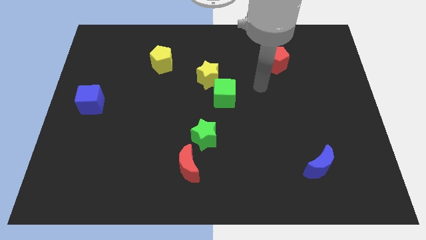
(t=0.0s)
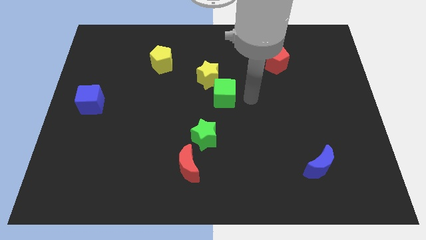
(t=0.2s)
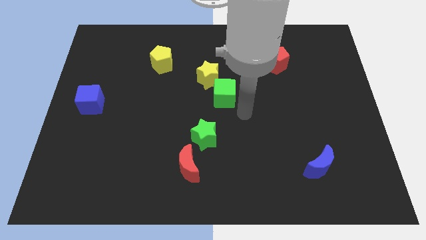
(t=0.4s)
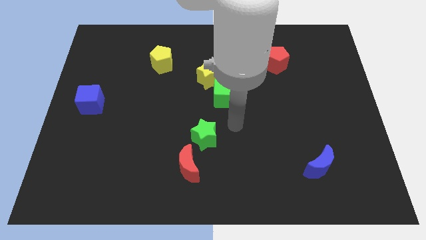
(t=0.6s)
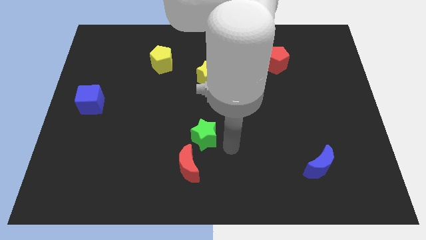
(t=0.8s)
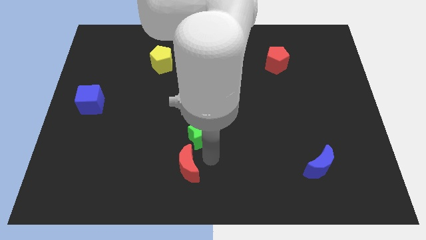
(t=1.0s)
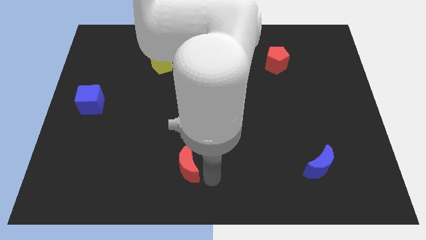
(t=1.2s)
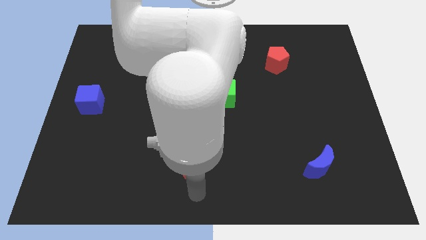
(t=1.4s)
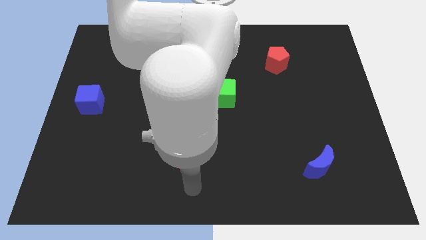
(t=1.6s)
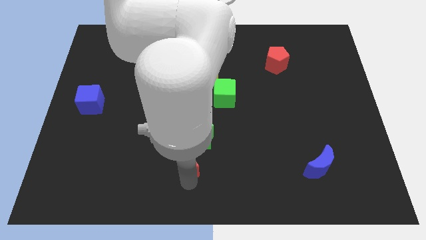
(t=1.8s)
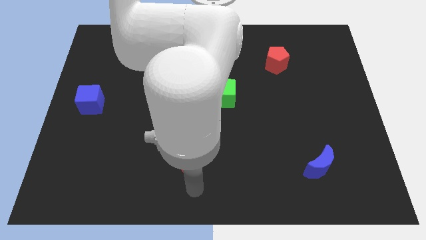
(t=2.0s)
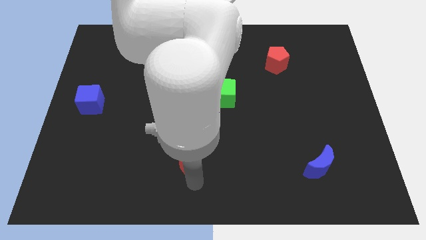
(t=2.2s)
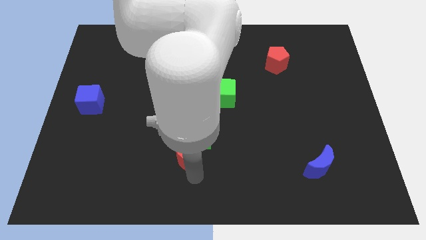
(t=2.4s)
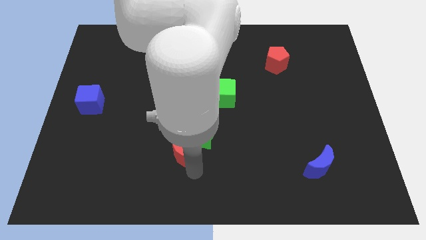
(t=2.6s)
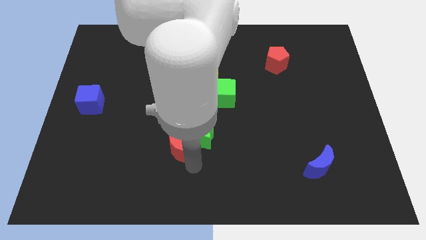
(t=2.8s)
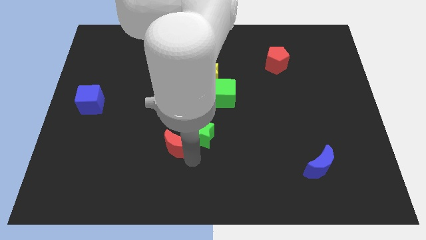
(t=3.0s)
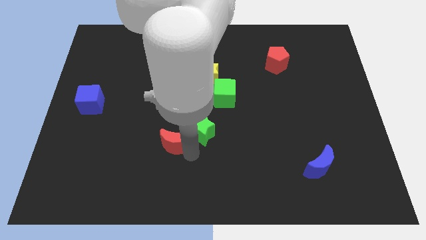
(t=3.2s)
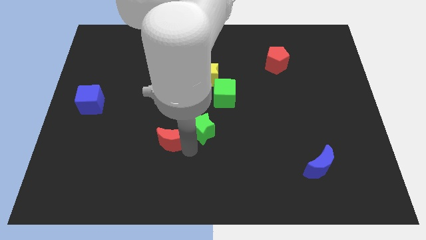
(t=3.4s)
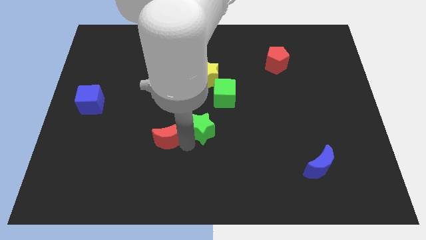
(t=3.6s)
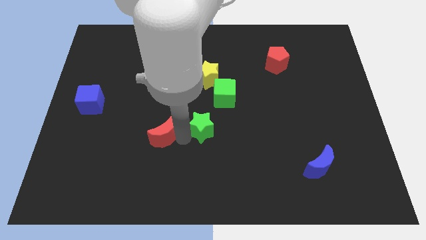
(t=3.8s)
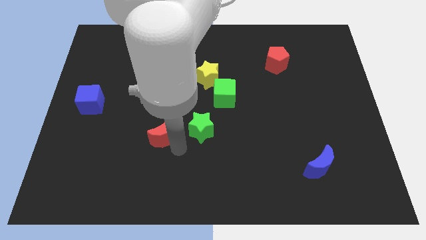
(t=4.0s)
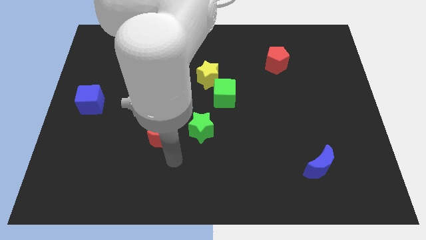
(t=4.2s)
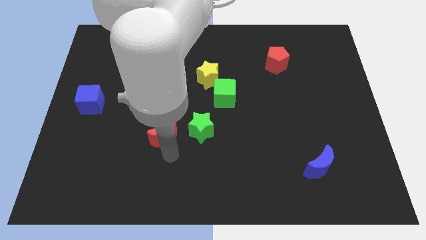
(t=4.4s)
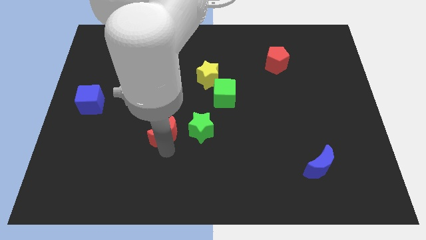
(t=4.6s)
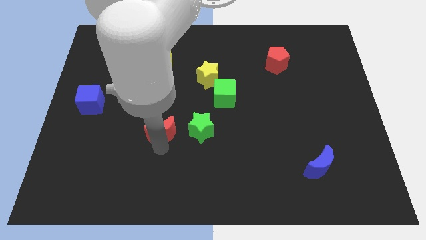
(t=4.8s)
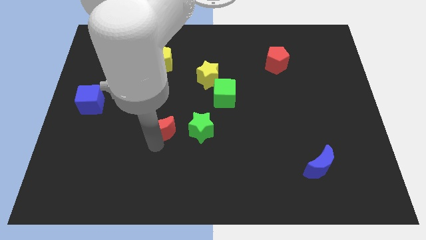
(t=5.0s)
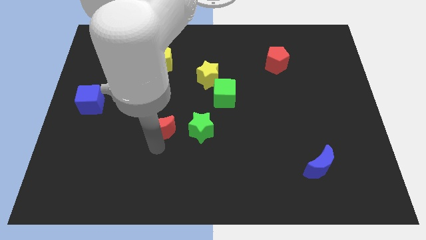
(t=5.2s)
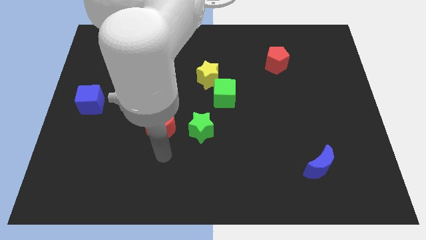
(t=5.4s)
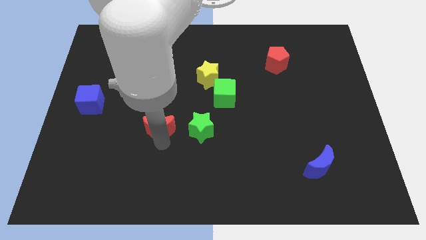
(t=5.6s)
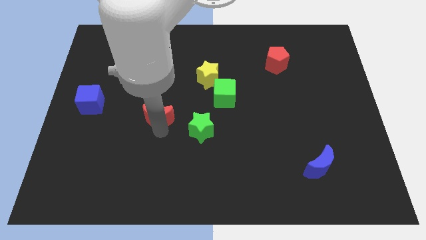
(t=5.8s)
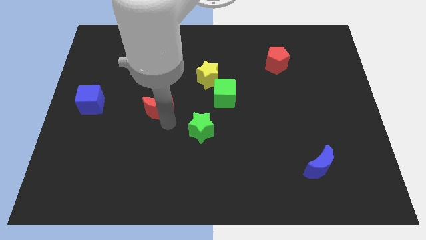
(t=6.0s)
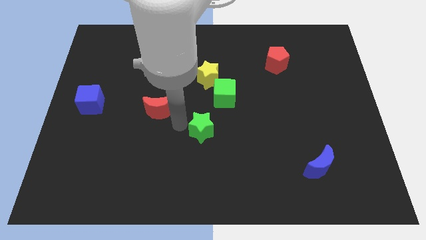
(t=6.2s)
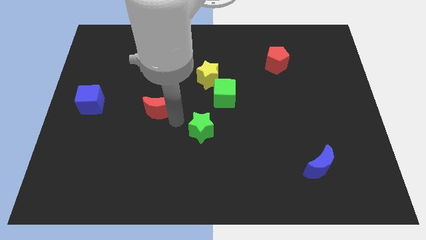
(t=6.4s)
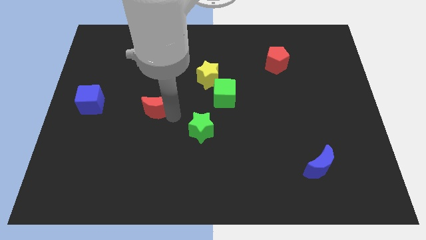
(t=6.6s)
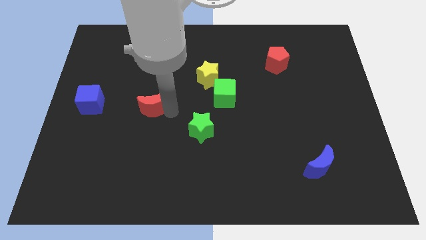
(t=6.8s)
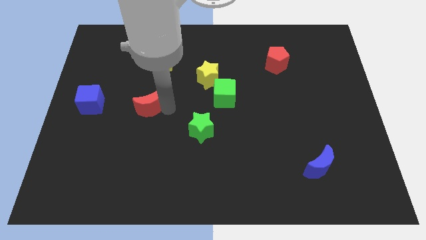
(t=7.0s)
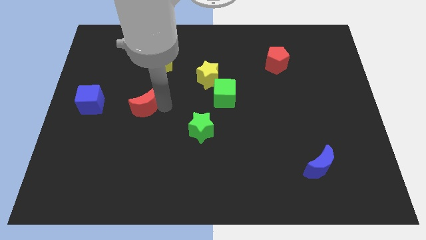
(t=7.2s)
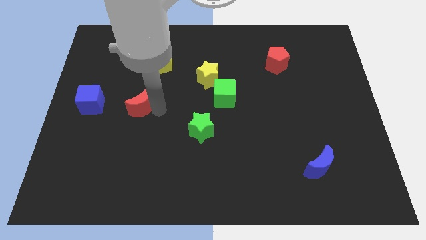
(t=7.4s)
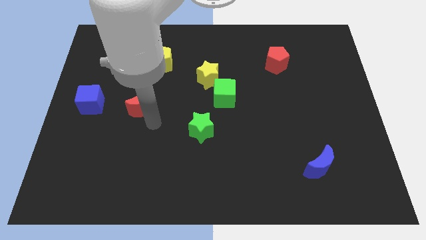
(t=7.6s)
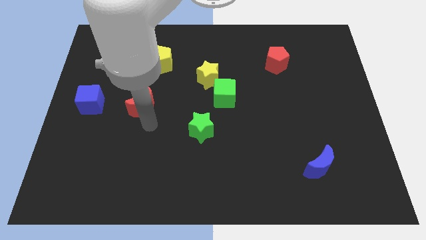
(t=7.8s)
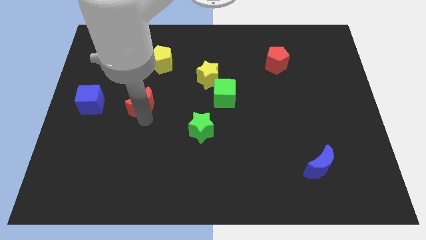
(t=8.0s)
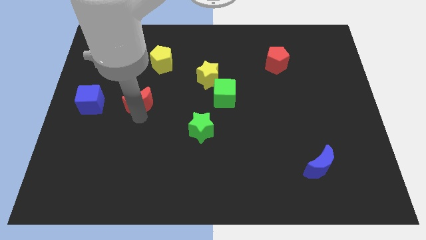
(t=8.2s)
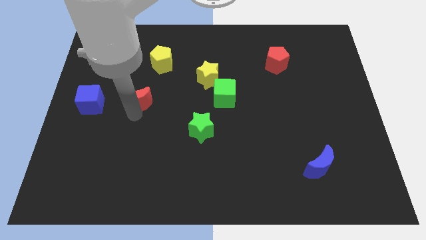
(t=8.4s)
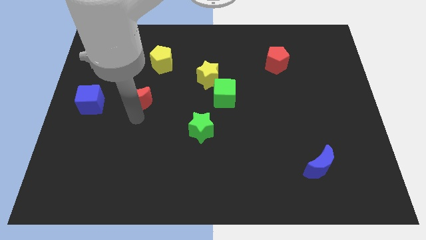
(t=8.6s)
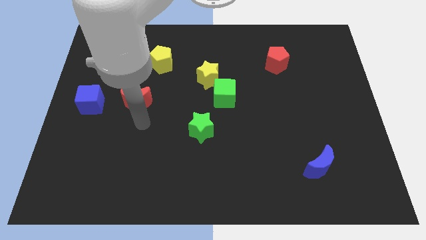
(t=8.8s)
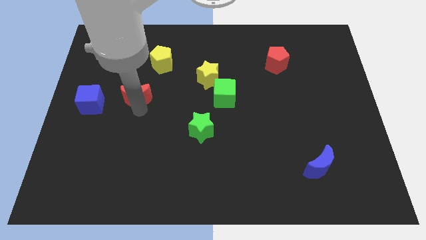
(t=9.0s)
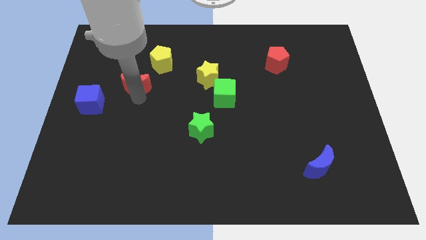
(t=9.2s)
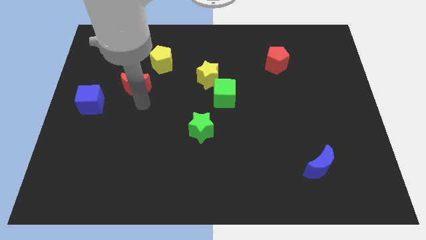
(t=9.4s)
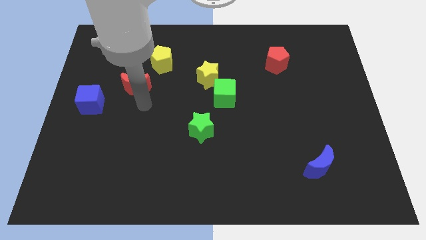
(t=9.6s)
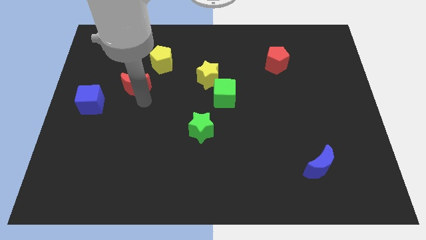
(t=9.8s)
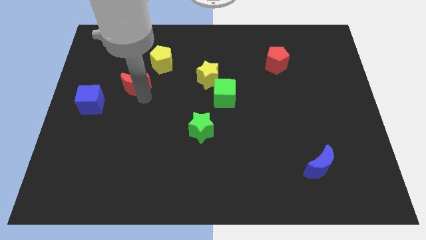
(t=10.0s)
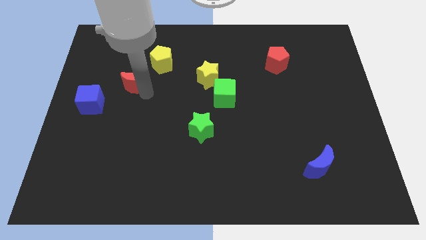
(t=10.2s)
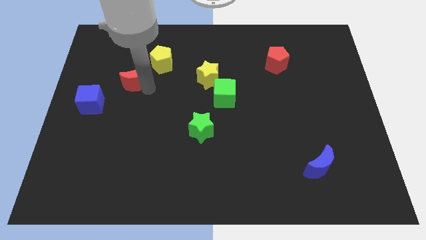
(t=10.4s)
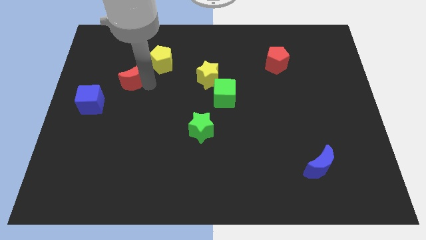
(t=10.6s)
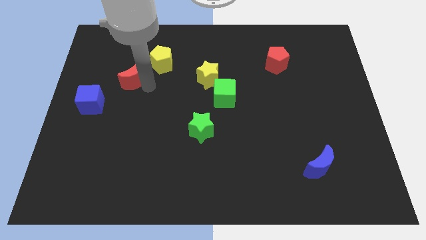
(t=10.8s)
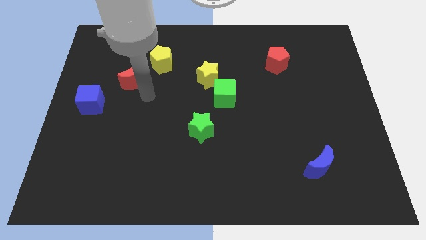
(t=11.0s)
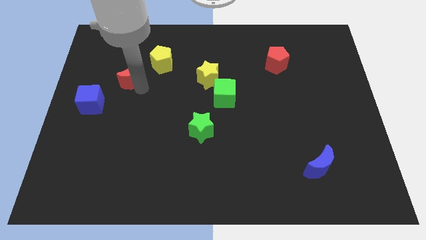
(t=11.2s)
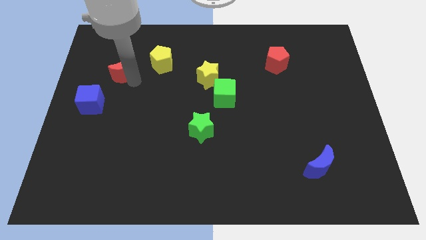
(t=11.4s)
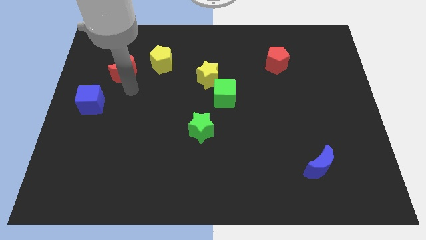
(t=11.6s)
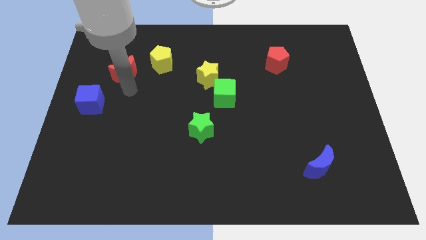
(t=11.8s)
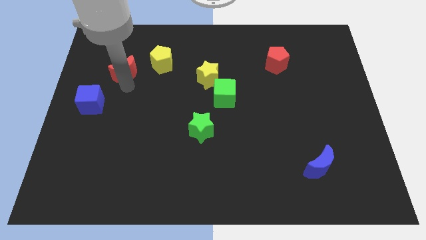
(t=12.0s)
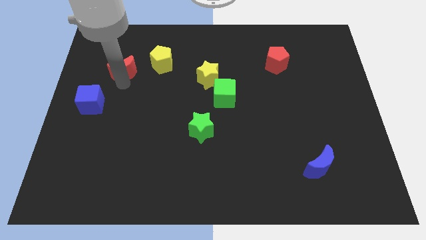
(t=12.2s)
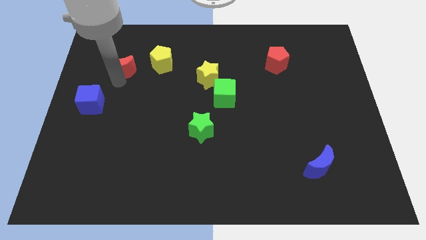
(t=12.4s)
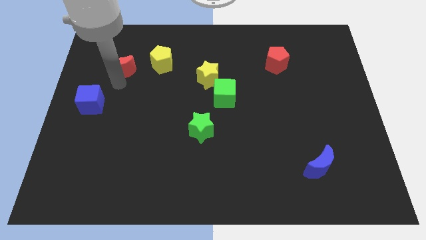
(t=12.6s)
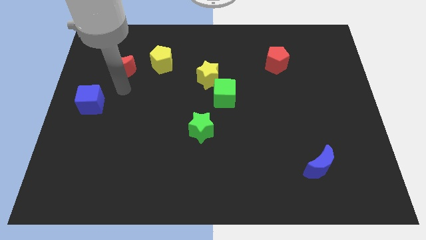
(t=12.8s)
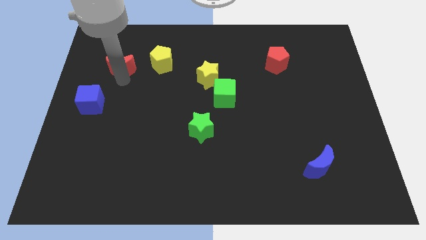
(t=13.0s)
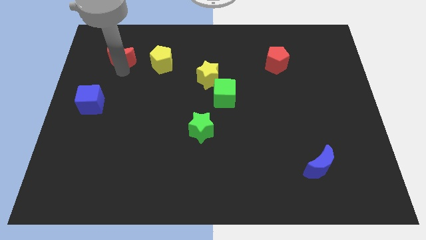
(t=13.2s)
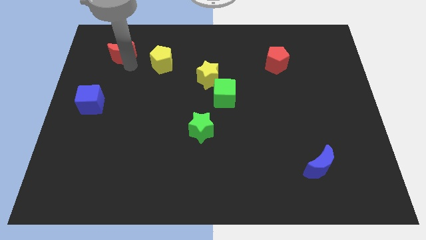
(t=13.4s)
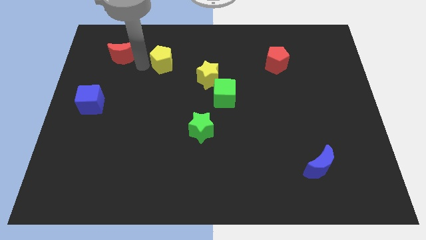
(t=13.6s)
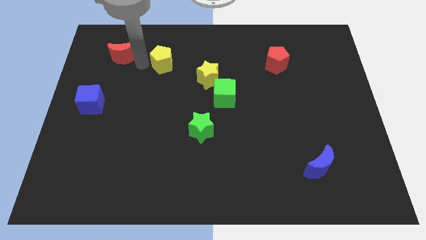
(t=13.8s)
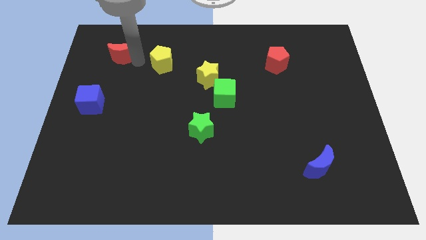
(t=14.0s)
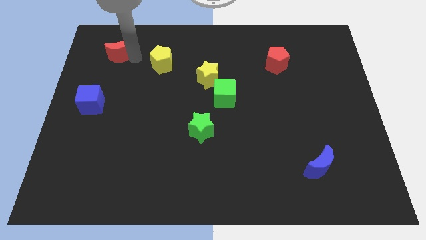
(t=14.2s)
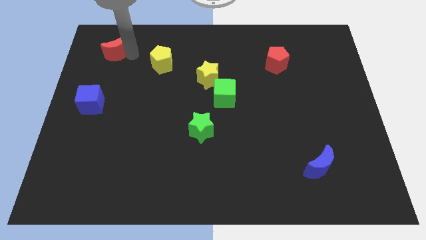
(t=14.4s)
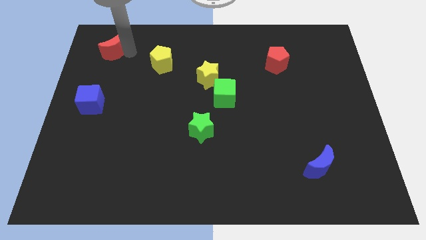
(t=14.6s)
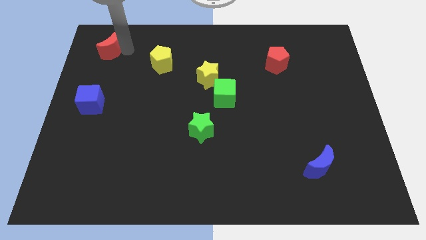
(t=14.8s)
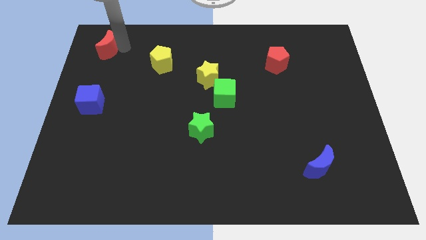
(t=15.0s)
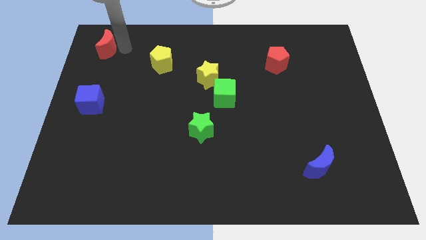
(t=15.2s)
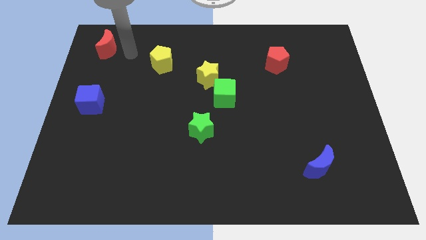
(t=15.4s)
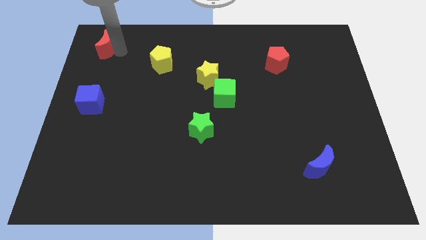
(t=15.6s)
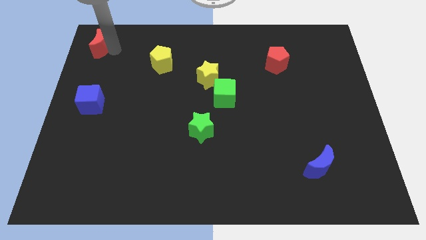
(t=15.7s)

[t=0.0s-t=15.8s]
move the red moon to the top left of the board
